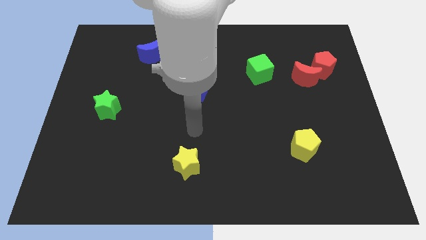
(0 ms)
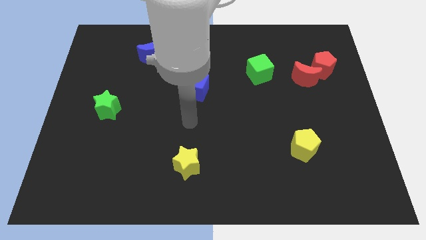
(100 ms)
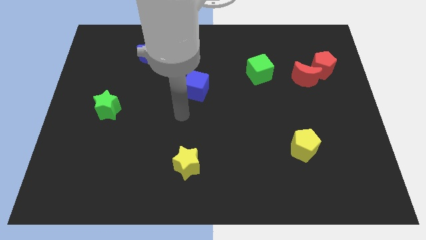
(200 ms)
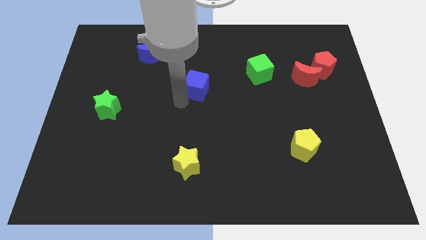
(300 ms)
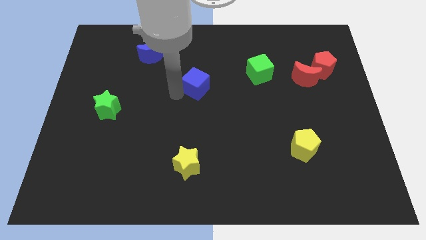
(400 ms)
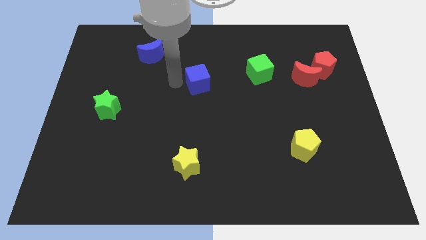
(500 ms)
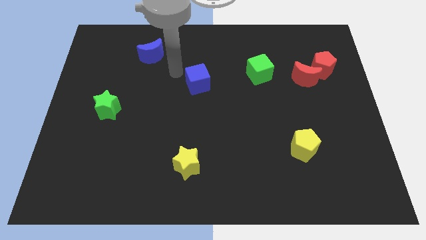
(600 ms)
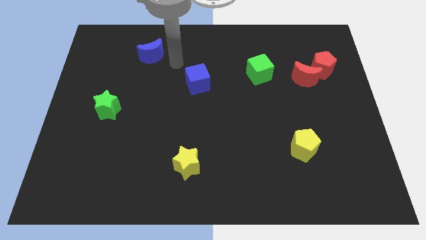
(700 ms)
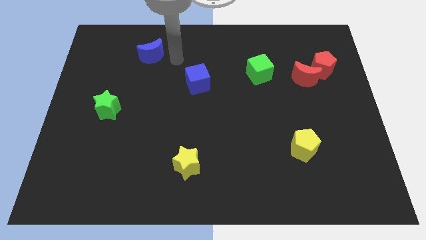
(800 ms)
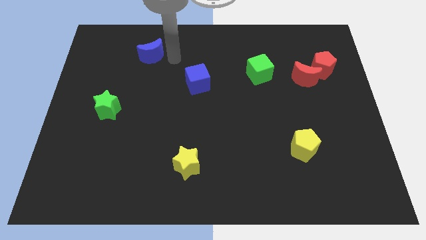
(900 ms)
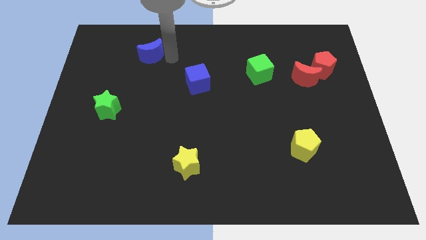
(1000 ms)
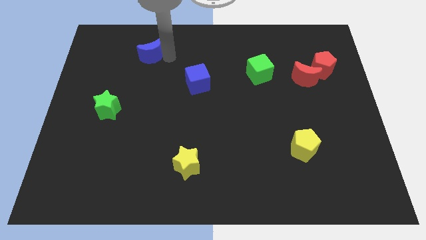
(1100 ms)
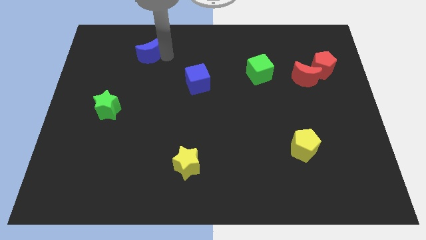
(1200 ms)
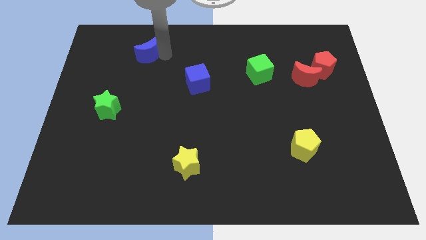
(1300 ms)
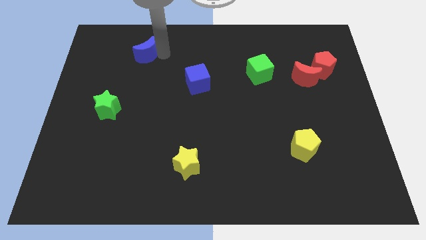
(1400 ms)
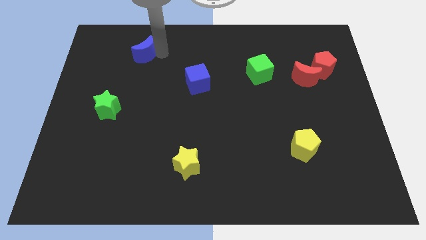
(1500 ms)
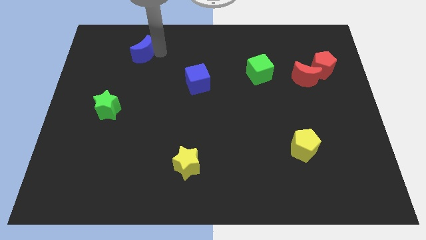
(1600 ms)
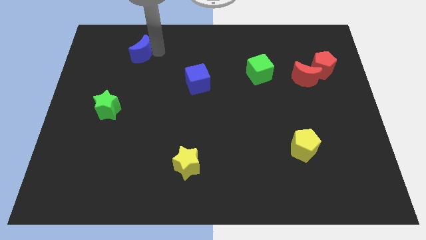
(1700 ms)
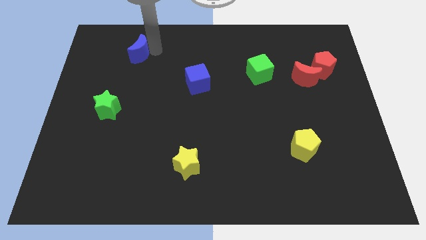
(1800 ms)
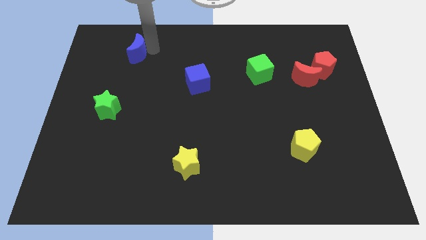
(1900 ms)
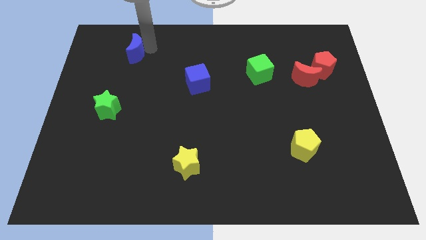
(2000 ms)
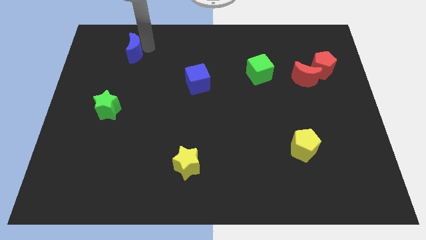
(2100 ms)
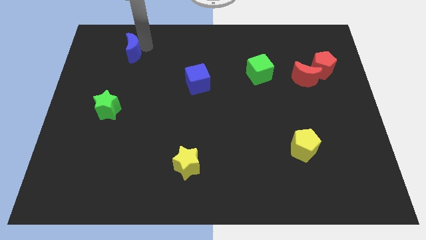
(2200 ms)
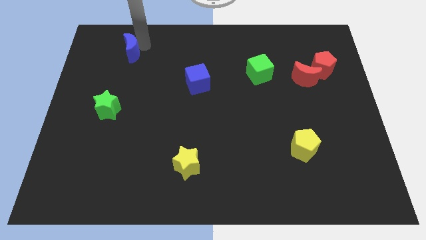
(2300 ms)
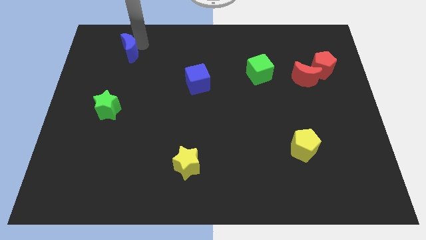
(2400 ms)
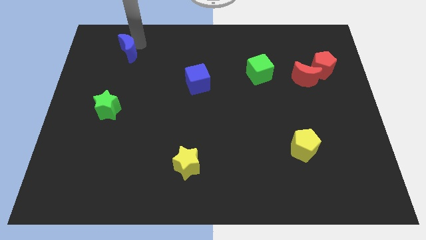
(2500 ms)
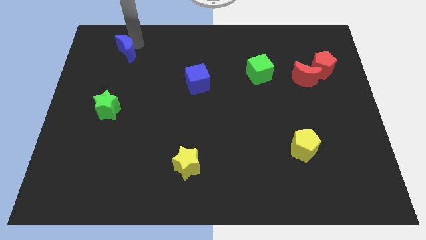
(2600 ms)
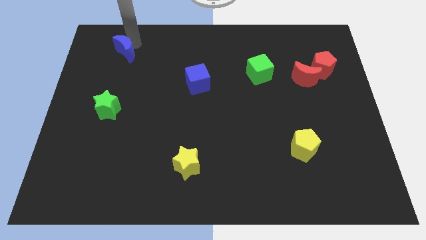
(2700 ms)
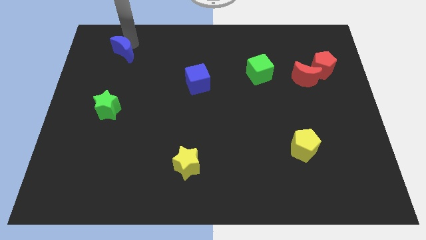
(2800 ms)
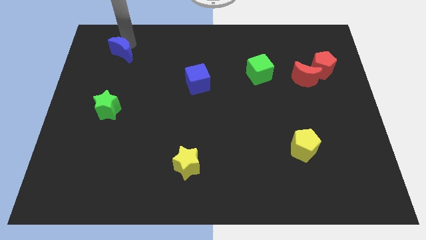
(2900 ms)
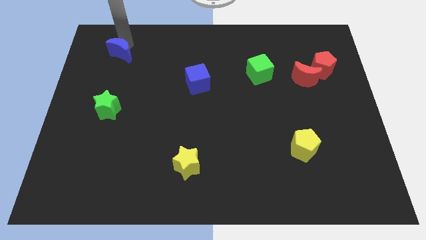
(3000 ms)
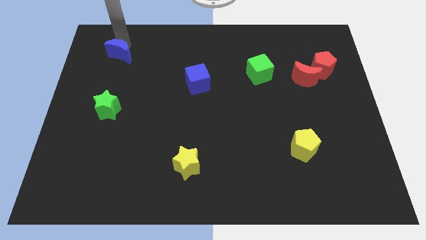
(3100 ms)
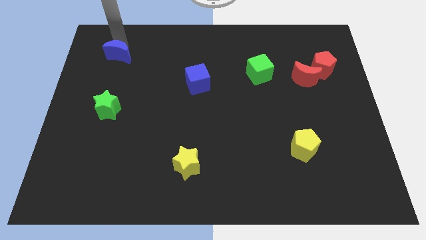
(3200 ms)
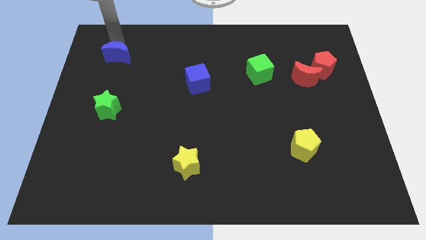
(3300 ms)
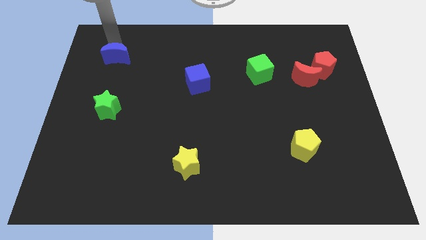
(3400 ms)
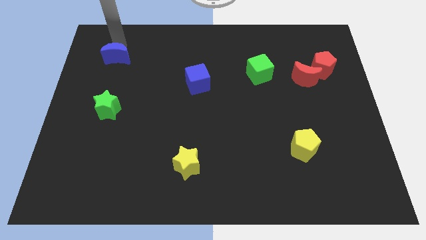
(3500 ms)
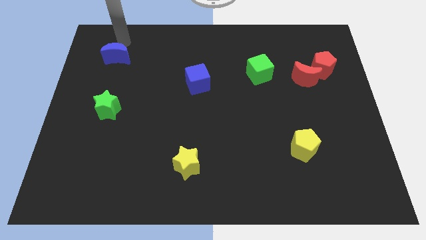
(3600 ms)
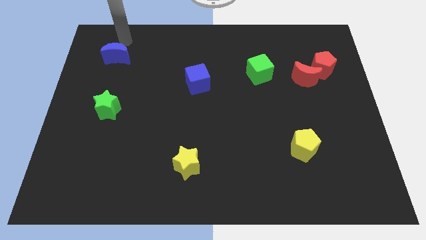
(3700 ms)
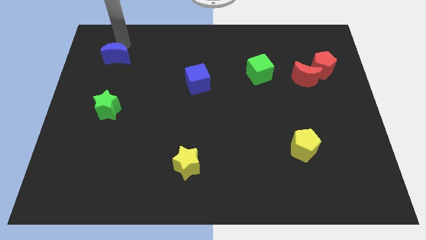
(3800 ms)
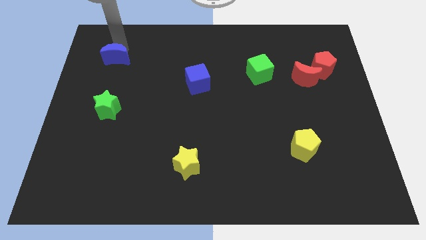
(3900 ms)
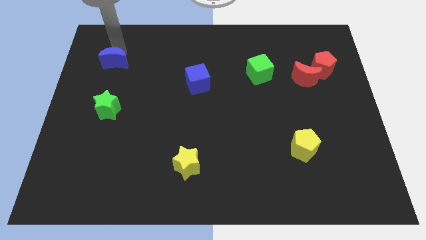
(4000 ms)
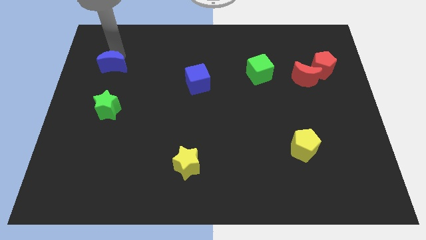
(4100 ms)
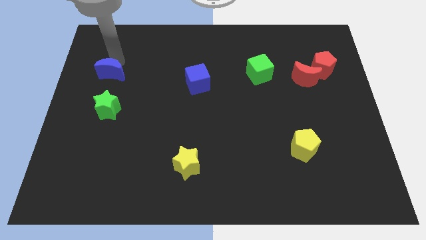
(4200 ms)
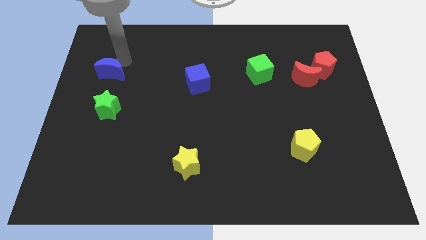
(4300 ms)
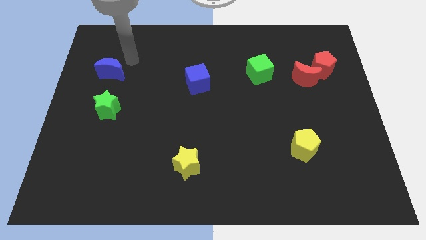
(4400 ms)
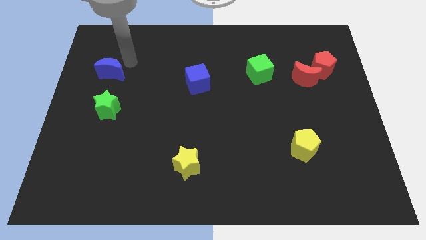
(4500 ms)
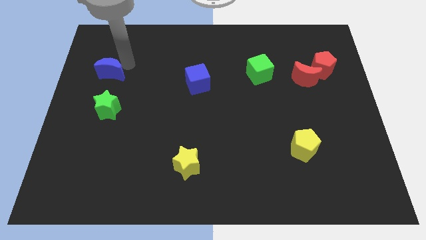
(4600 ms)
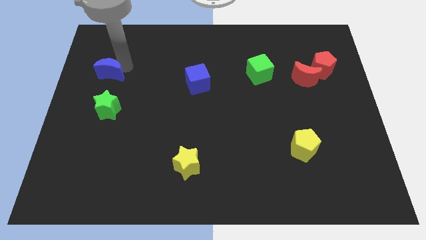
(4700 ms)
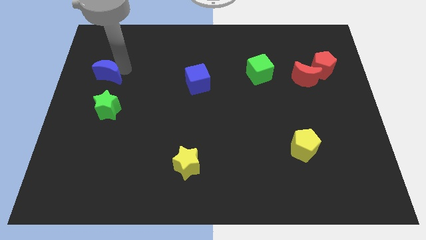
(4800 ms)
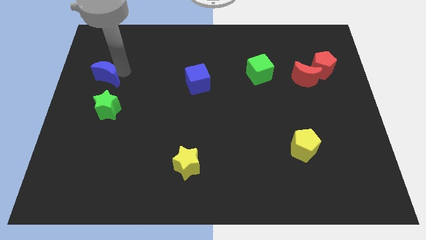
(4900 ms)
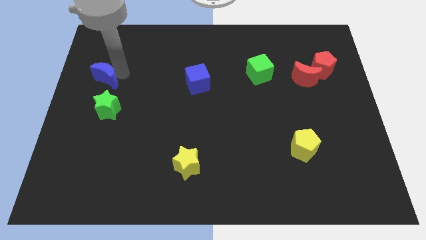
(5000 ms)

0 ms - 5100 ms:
push the blue moon to the left side of the board

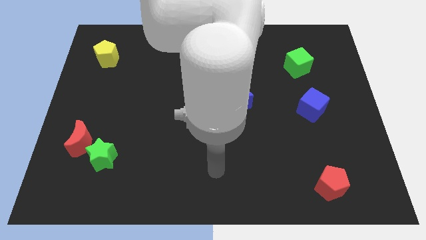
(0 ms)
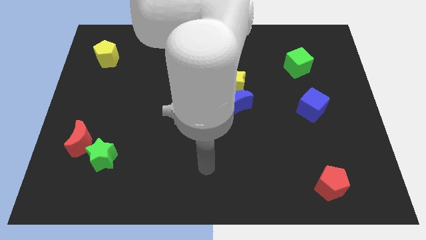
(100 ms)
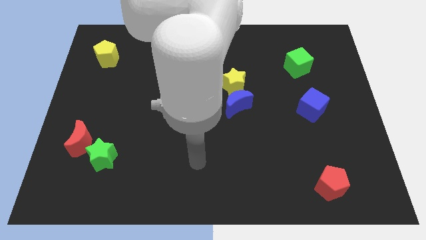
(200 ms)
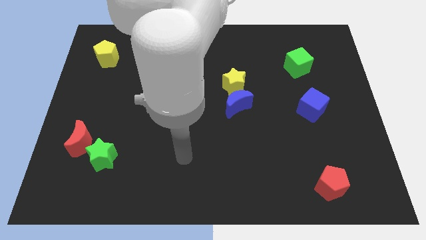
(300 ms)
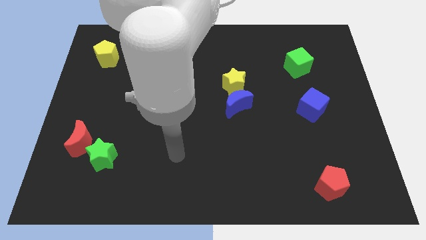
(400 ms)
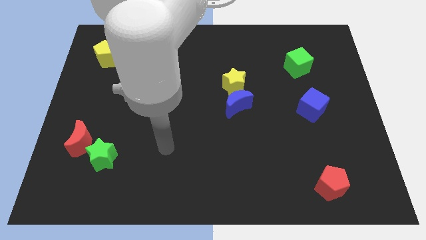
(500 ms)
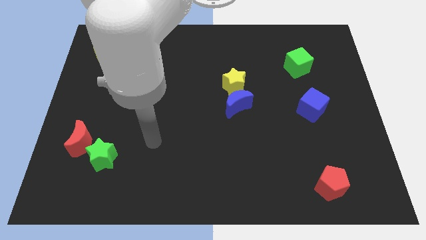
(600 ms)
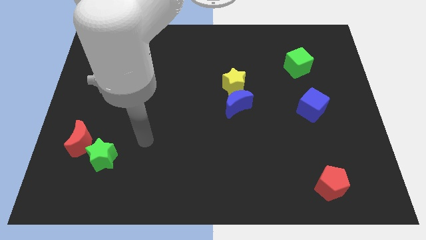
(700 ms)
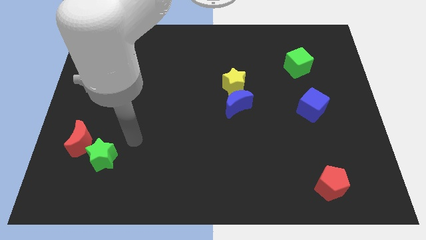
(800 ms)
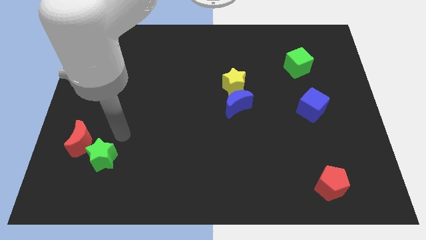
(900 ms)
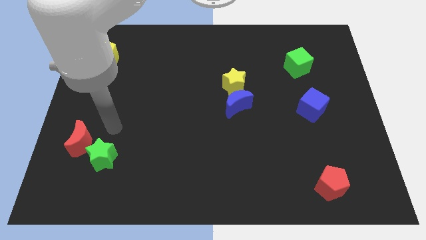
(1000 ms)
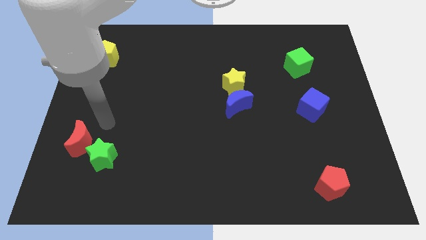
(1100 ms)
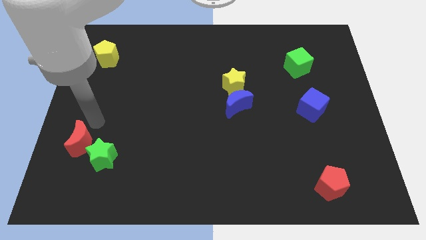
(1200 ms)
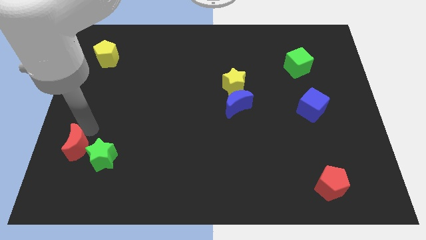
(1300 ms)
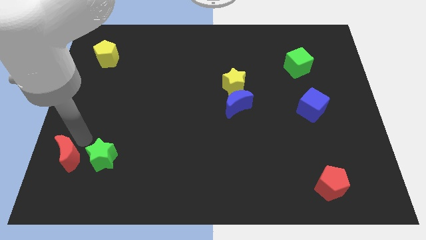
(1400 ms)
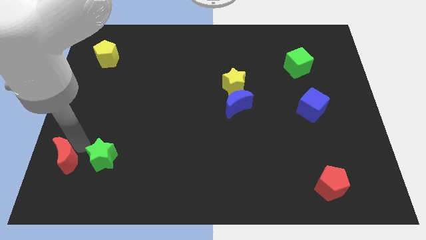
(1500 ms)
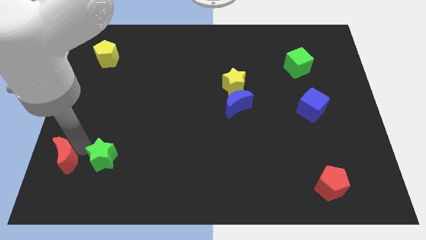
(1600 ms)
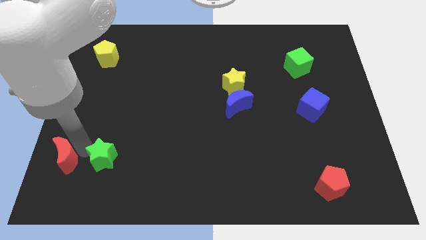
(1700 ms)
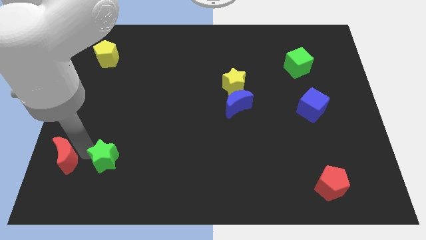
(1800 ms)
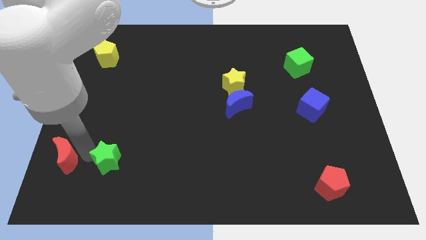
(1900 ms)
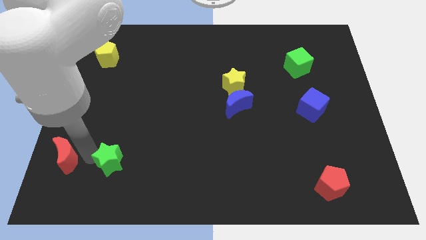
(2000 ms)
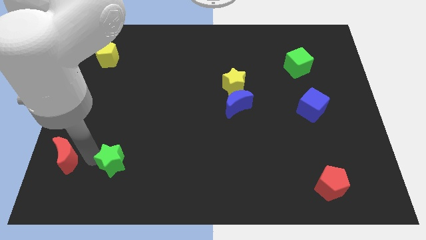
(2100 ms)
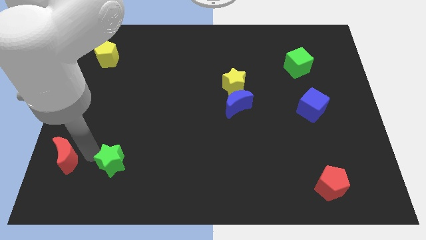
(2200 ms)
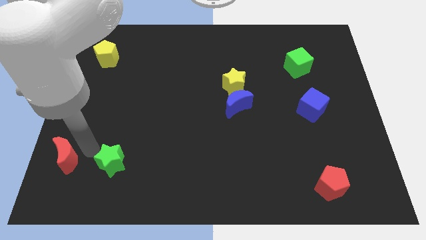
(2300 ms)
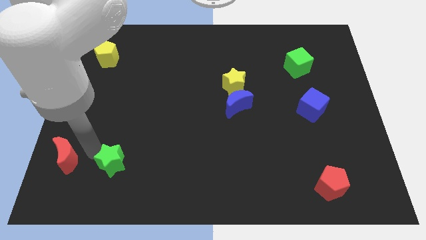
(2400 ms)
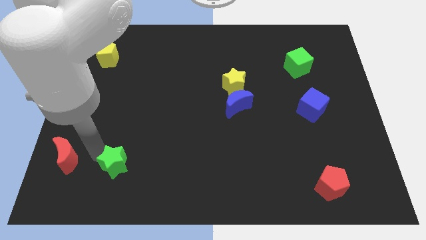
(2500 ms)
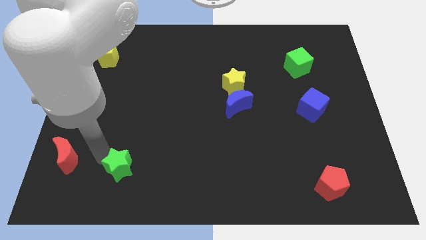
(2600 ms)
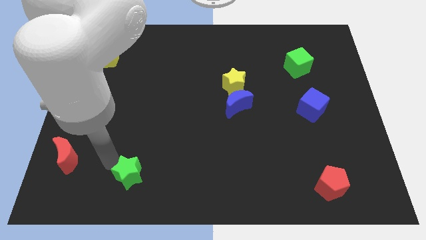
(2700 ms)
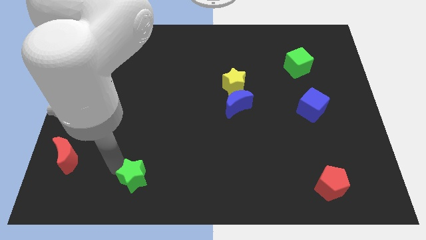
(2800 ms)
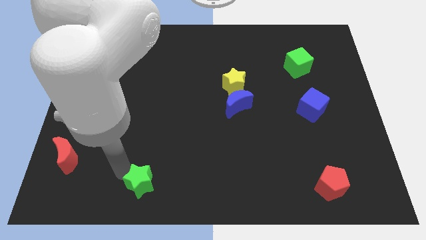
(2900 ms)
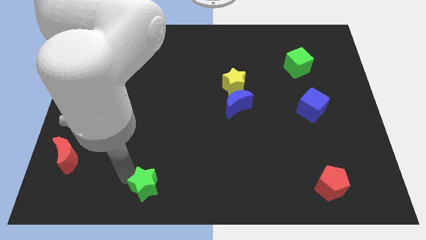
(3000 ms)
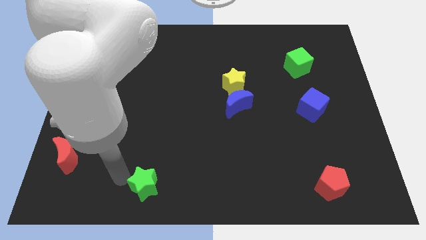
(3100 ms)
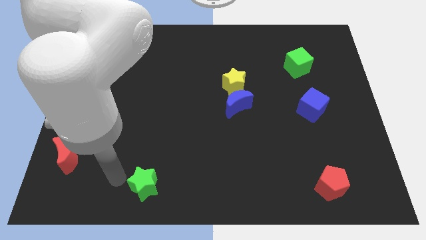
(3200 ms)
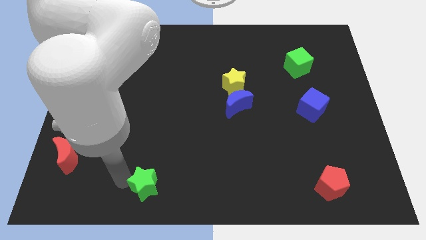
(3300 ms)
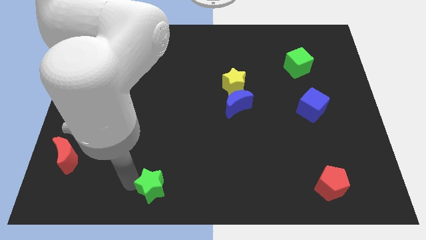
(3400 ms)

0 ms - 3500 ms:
move the green star to the bottom side

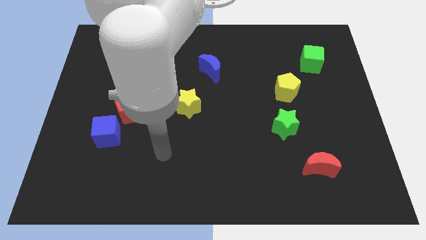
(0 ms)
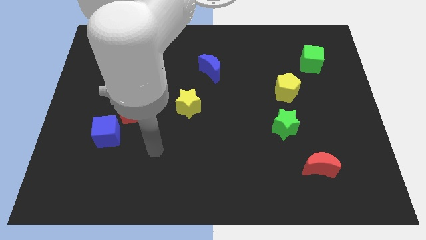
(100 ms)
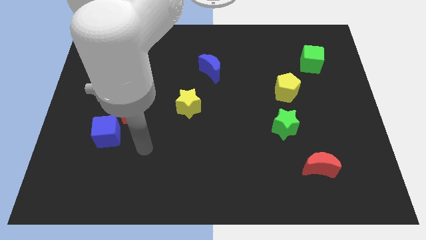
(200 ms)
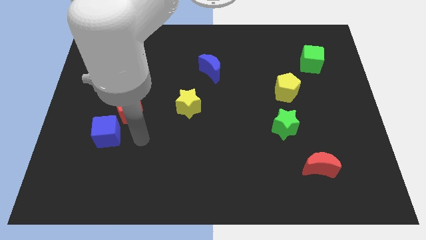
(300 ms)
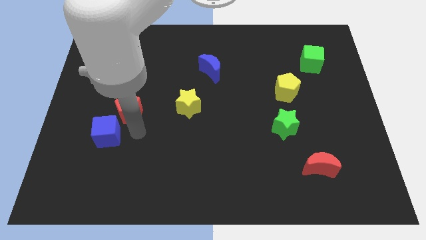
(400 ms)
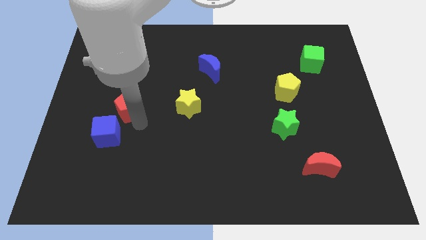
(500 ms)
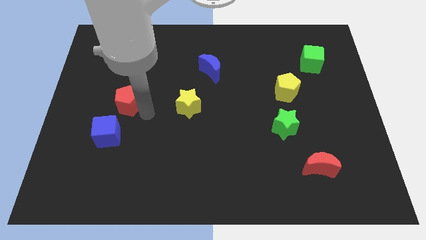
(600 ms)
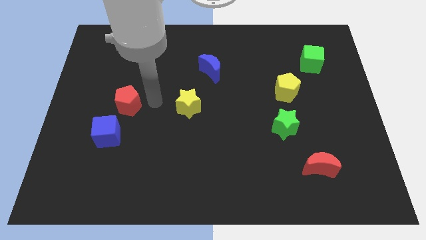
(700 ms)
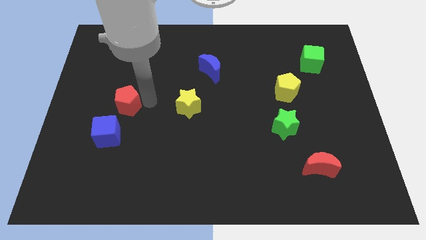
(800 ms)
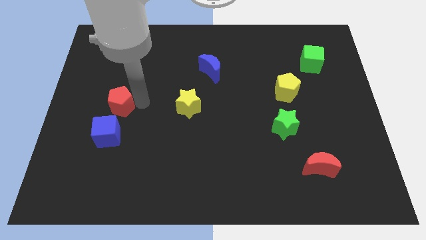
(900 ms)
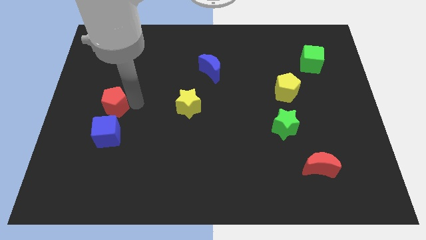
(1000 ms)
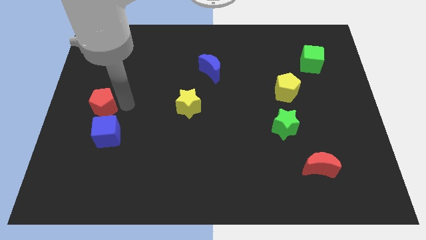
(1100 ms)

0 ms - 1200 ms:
move the red pentagon to the center left
